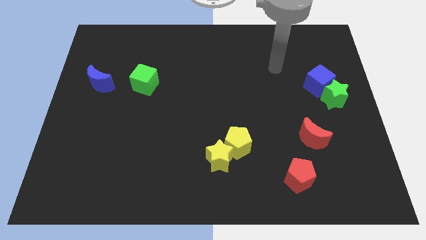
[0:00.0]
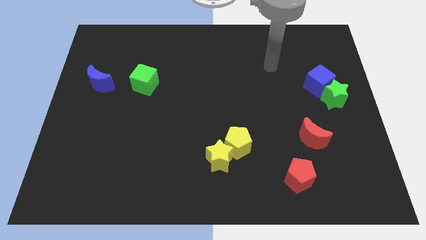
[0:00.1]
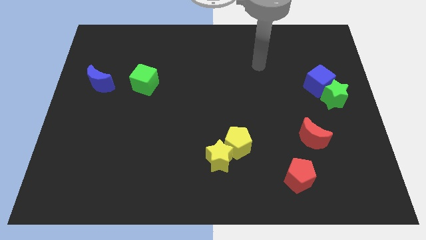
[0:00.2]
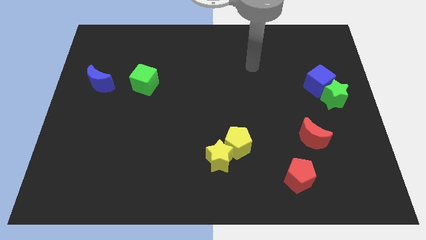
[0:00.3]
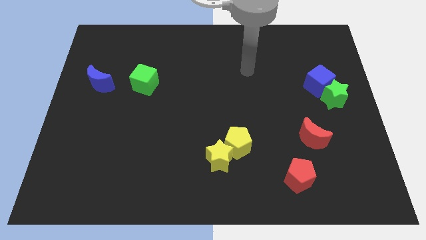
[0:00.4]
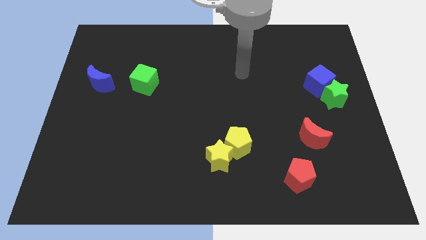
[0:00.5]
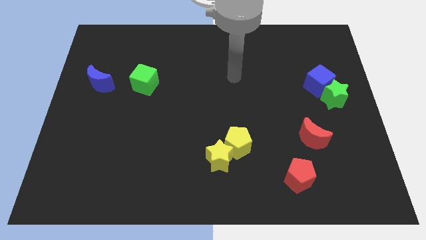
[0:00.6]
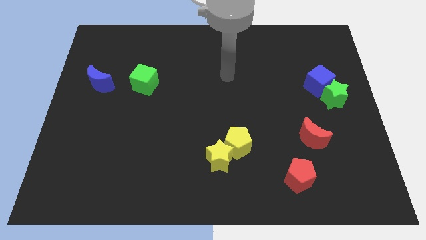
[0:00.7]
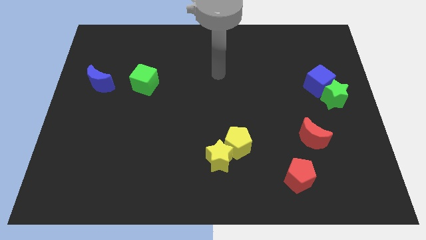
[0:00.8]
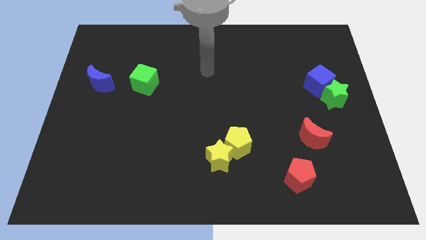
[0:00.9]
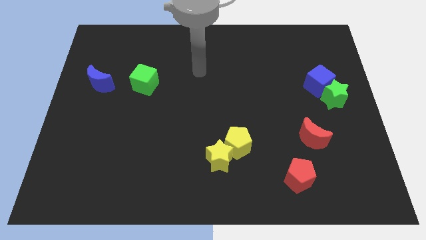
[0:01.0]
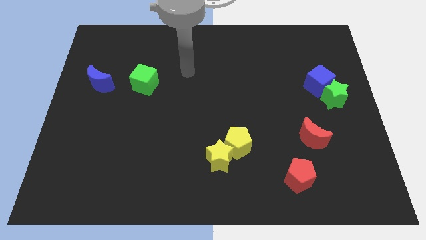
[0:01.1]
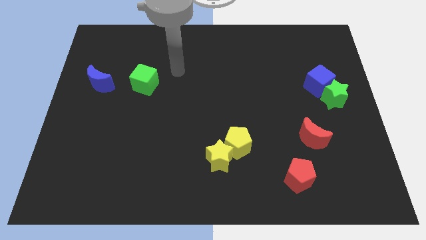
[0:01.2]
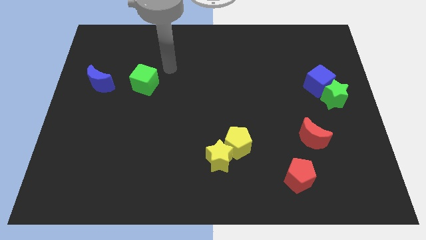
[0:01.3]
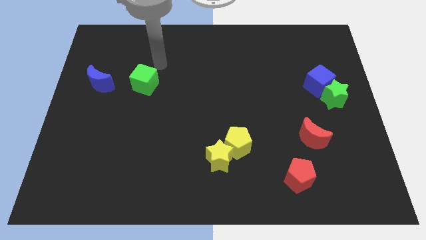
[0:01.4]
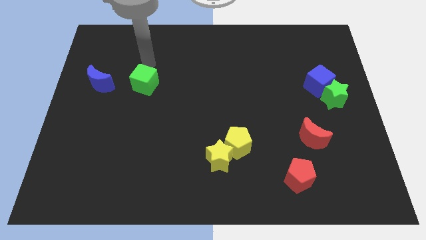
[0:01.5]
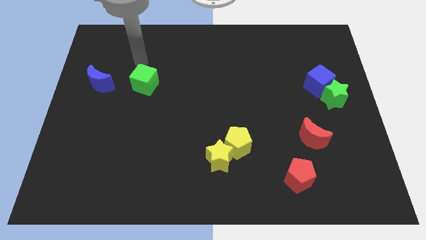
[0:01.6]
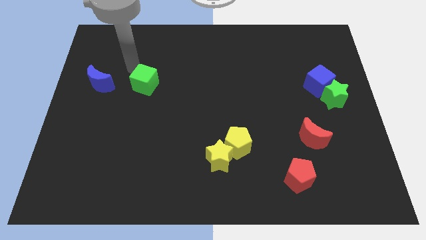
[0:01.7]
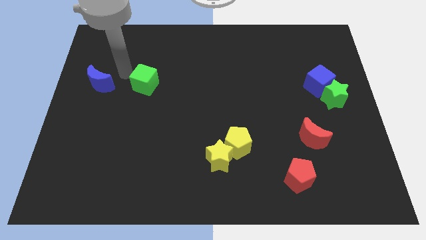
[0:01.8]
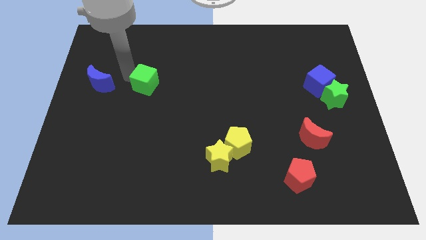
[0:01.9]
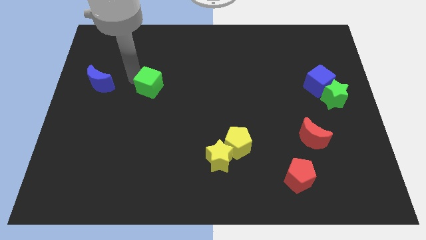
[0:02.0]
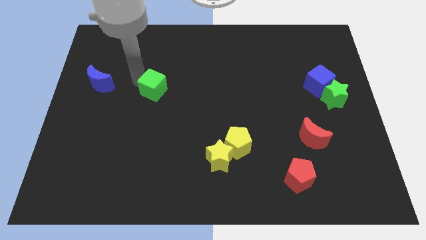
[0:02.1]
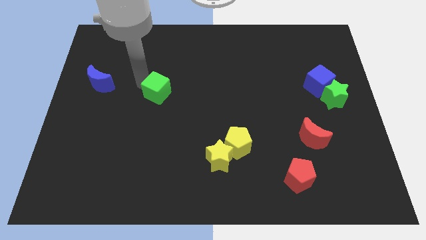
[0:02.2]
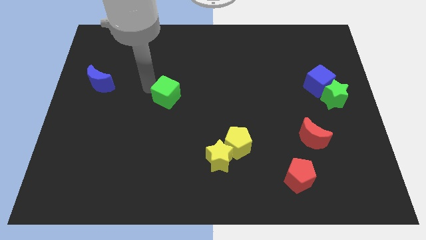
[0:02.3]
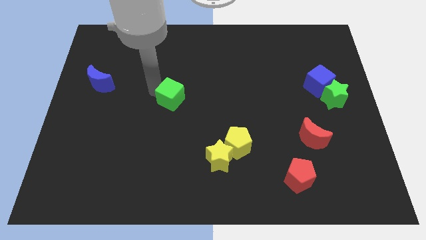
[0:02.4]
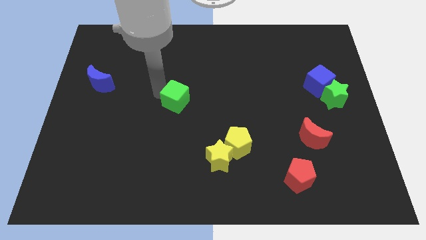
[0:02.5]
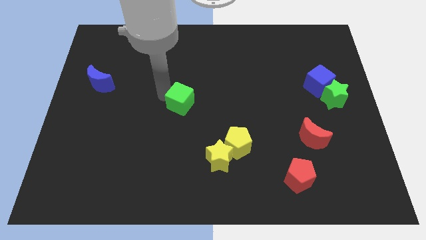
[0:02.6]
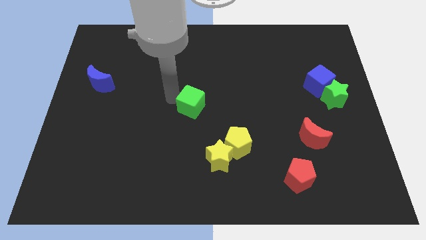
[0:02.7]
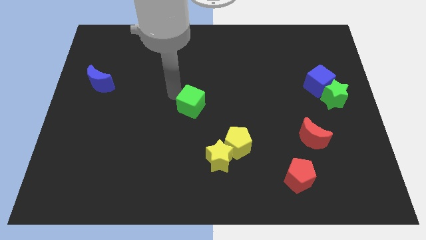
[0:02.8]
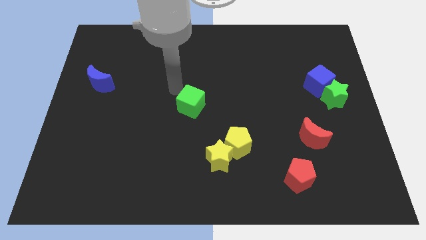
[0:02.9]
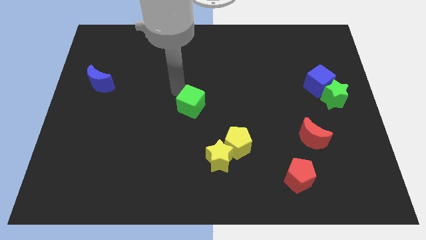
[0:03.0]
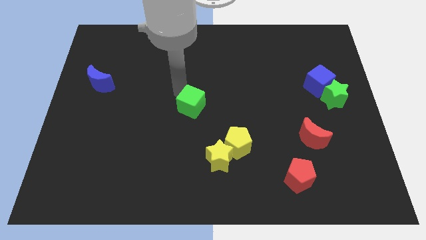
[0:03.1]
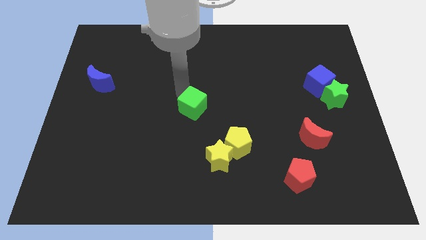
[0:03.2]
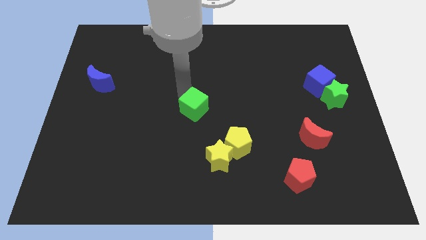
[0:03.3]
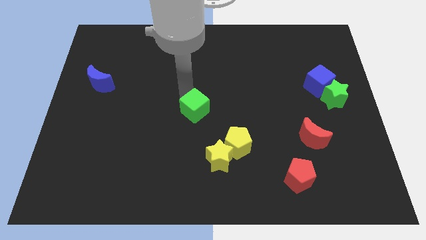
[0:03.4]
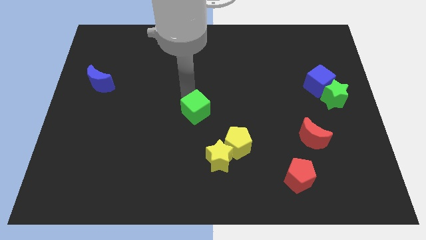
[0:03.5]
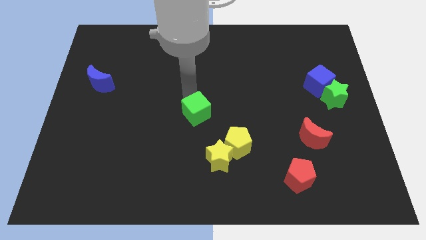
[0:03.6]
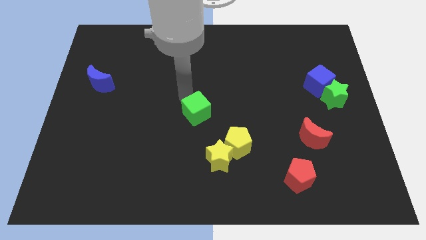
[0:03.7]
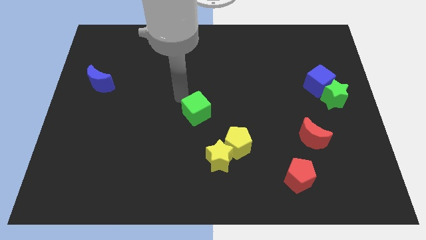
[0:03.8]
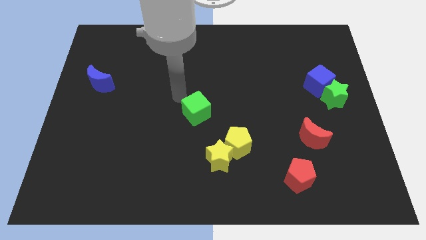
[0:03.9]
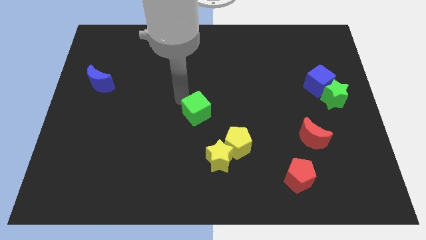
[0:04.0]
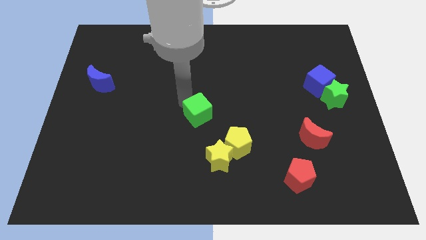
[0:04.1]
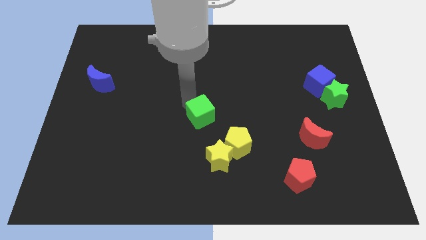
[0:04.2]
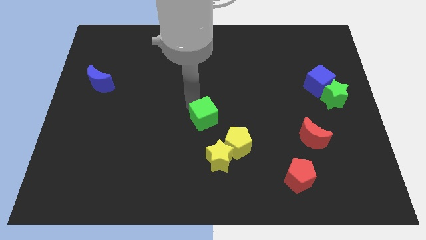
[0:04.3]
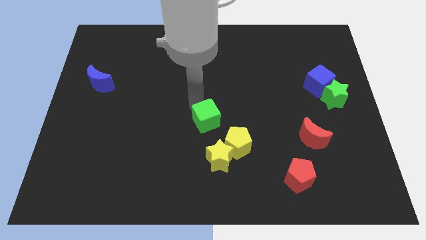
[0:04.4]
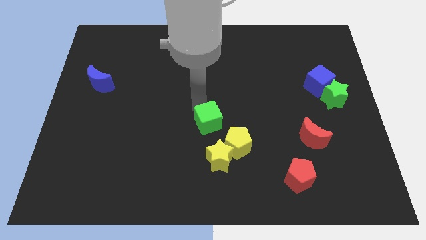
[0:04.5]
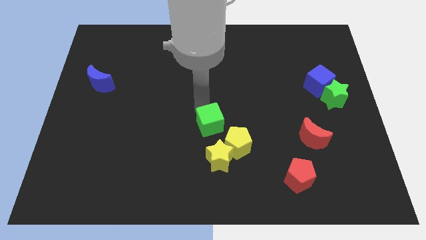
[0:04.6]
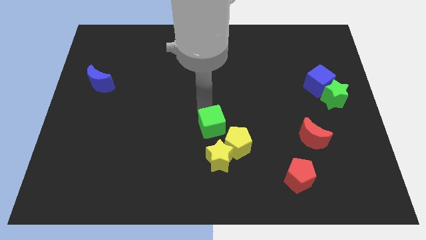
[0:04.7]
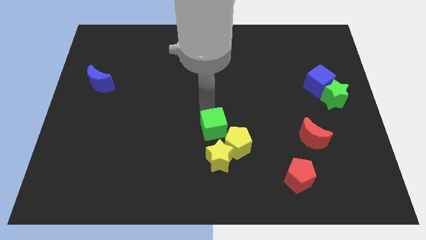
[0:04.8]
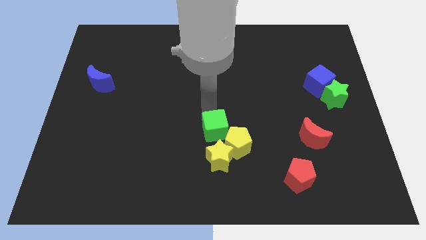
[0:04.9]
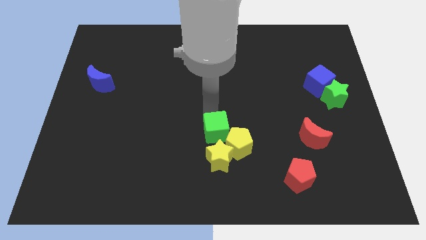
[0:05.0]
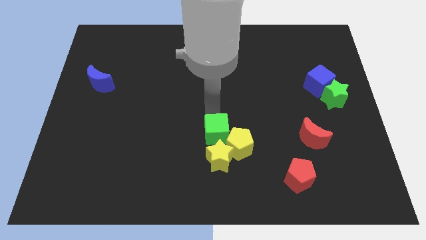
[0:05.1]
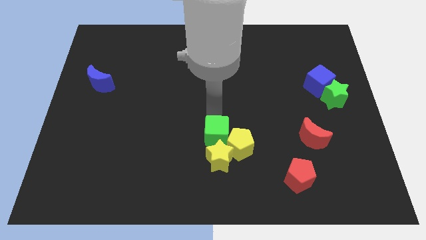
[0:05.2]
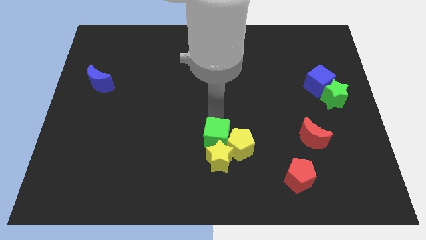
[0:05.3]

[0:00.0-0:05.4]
move the green cube to the yellow star

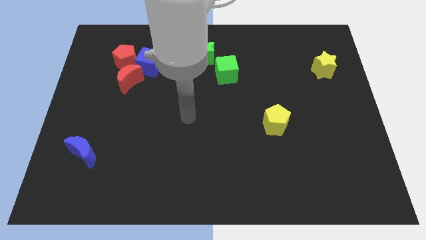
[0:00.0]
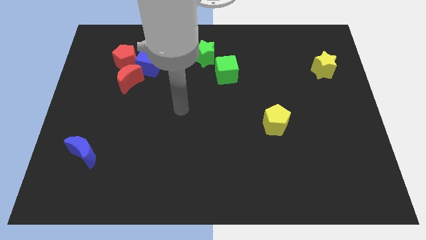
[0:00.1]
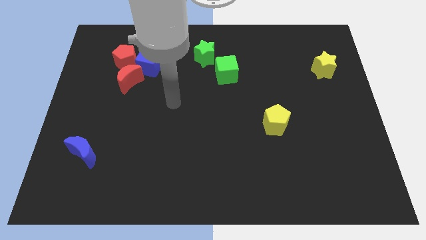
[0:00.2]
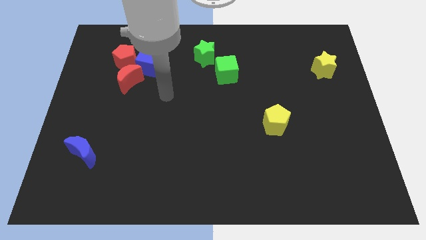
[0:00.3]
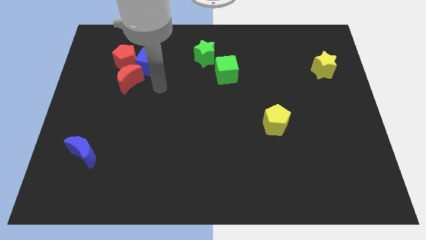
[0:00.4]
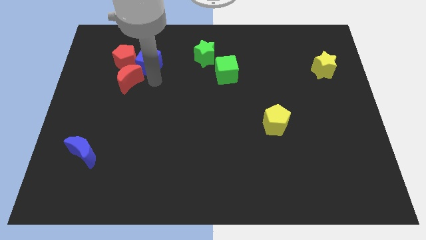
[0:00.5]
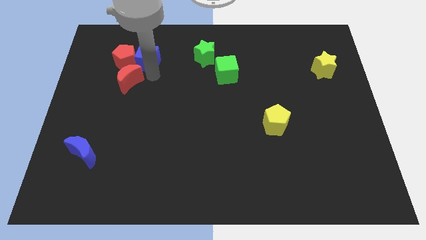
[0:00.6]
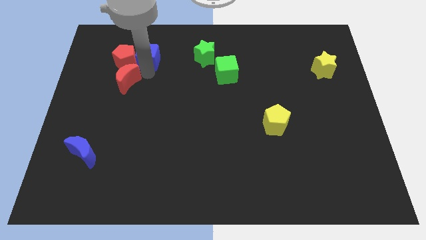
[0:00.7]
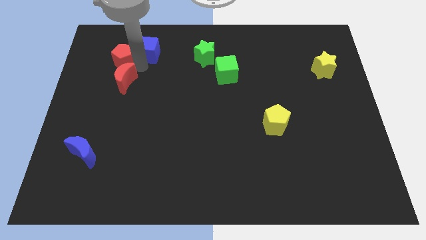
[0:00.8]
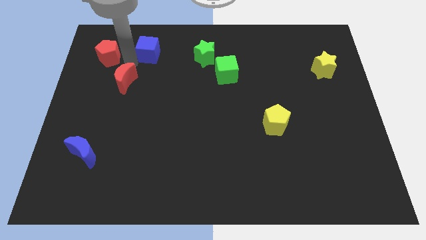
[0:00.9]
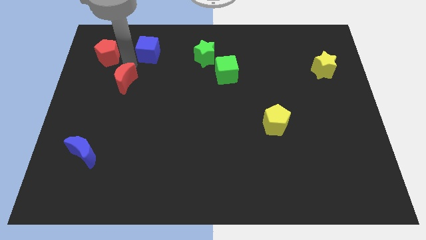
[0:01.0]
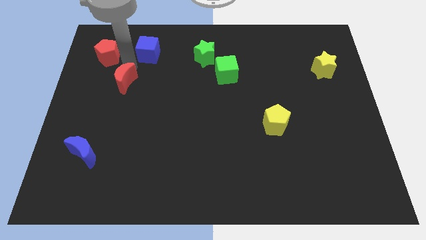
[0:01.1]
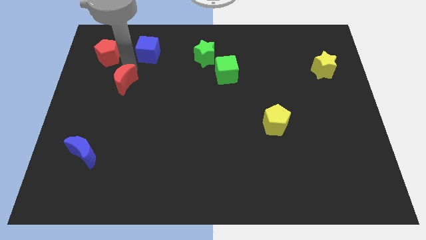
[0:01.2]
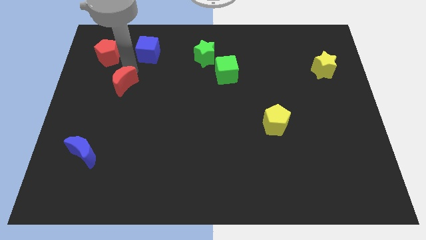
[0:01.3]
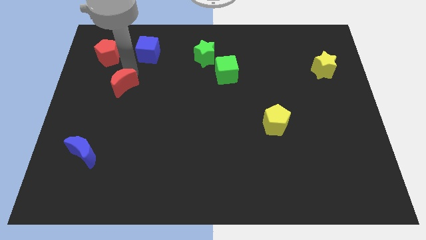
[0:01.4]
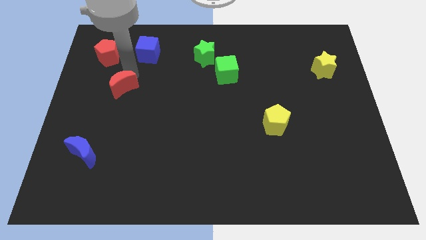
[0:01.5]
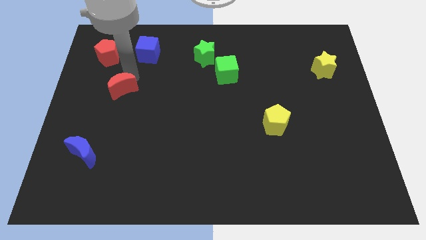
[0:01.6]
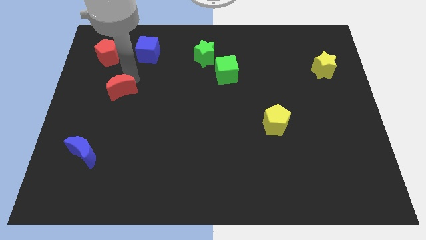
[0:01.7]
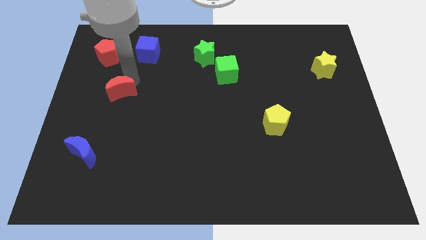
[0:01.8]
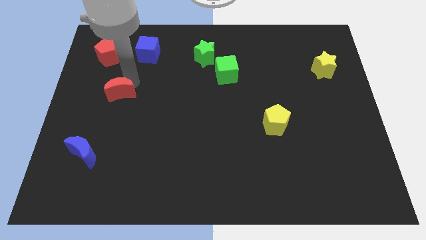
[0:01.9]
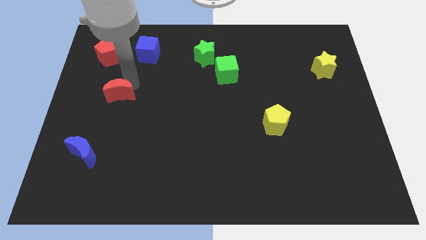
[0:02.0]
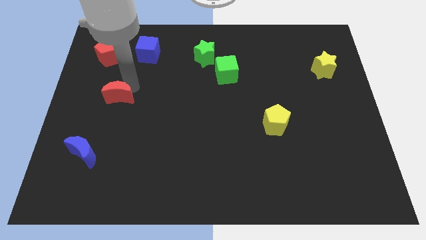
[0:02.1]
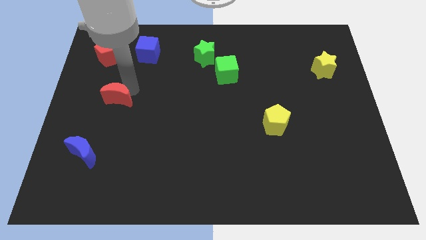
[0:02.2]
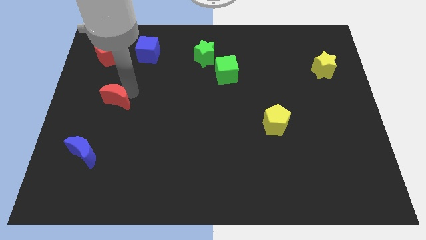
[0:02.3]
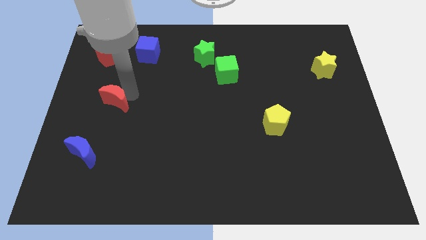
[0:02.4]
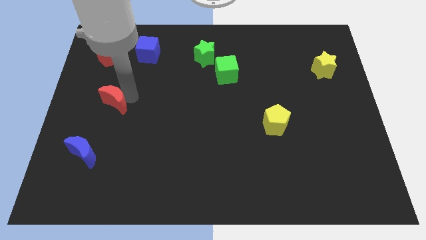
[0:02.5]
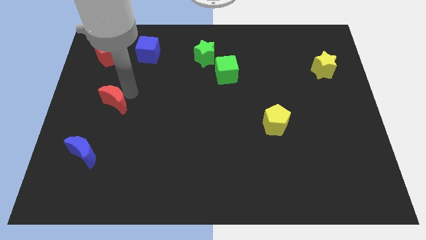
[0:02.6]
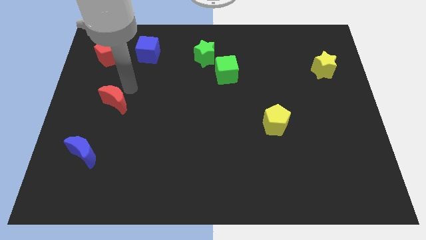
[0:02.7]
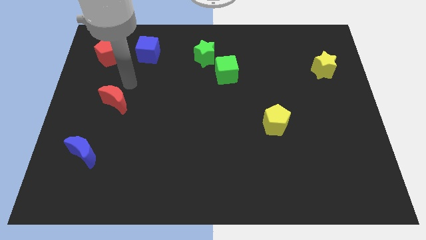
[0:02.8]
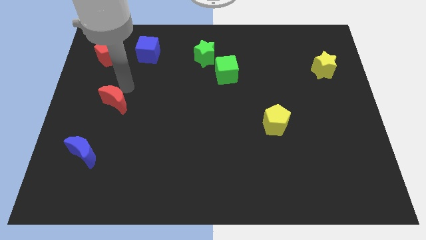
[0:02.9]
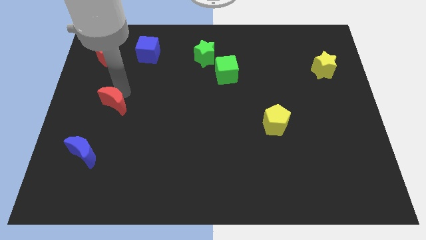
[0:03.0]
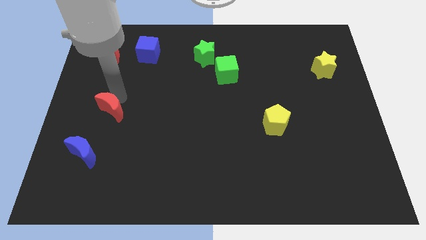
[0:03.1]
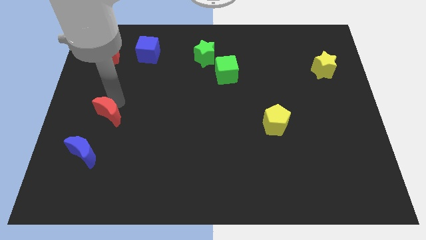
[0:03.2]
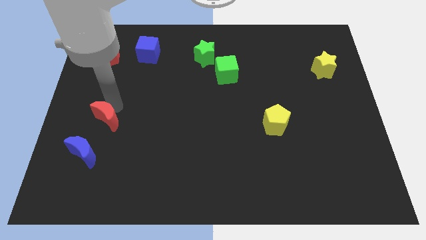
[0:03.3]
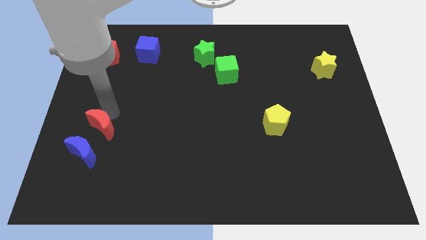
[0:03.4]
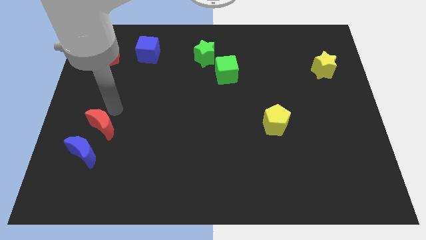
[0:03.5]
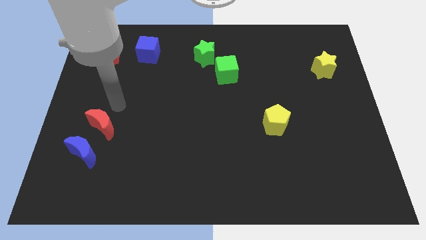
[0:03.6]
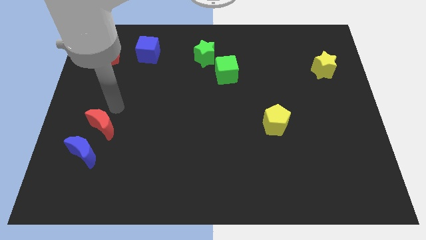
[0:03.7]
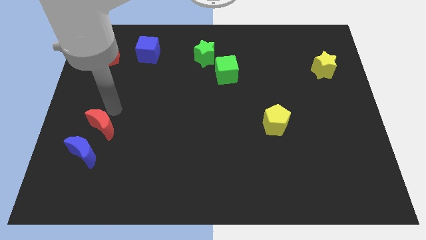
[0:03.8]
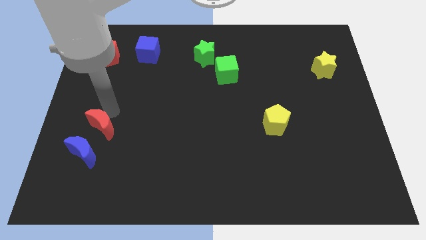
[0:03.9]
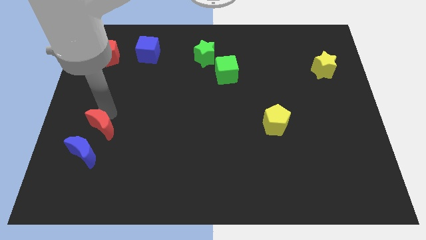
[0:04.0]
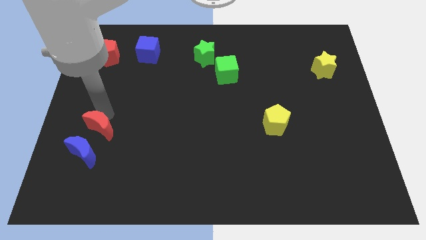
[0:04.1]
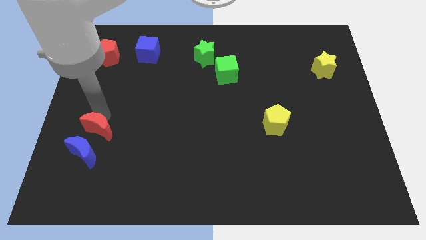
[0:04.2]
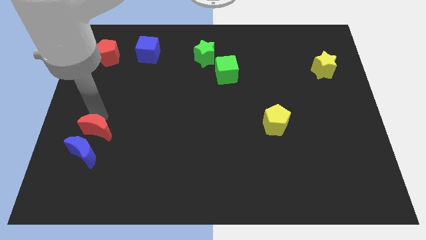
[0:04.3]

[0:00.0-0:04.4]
put the red moon to the blue moon
